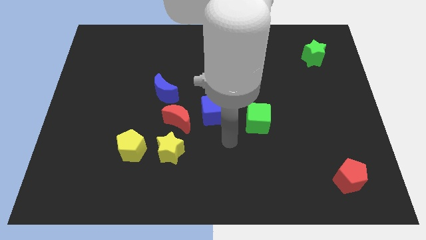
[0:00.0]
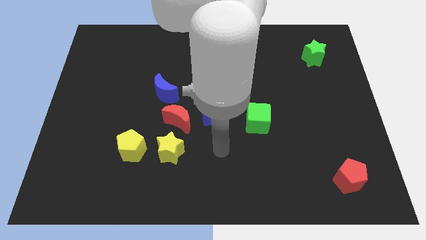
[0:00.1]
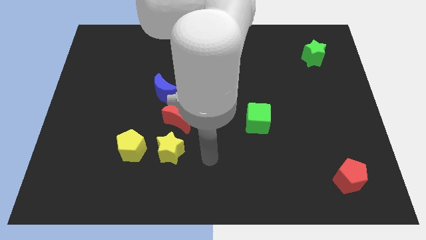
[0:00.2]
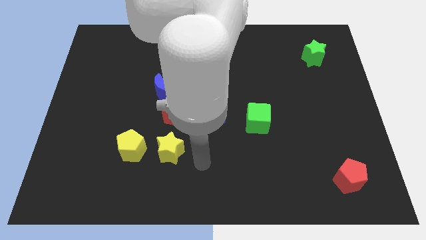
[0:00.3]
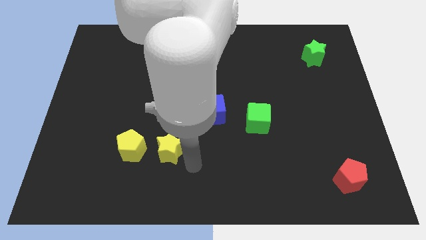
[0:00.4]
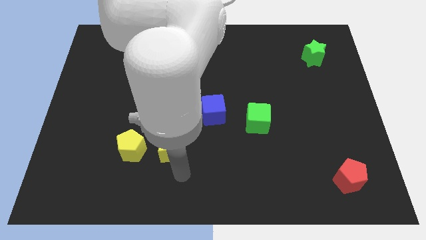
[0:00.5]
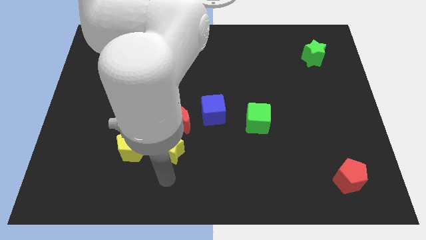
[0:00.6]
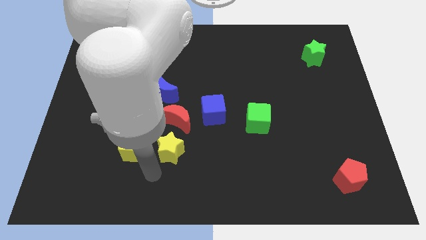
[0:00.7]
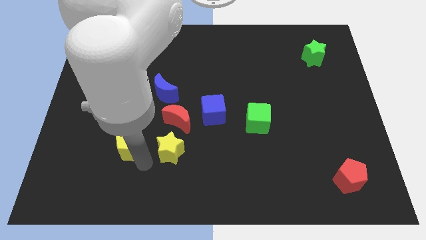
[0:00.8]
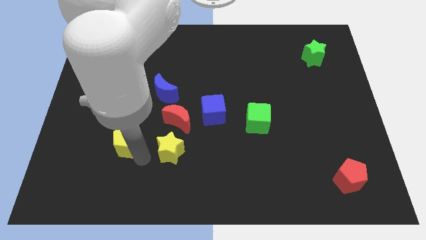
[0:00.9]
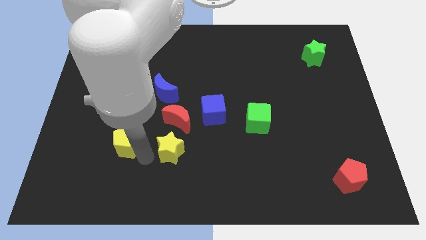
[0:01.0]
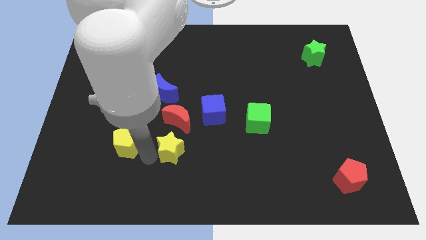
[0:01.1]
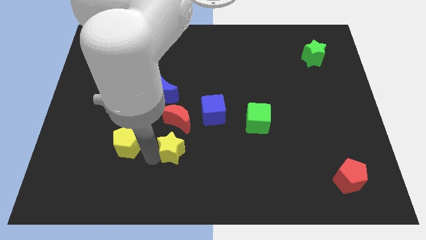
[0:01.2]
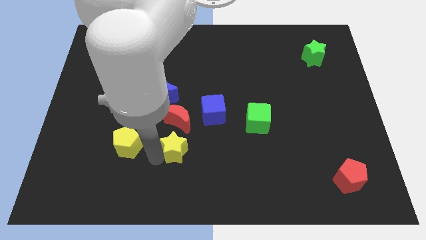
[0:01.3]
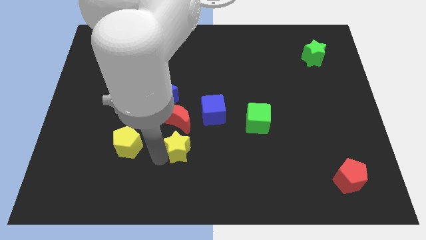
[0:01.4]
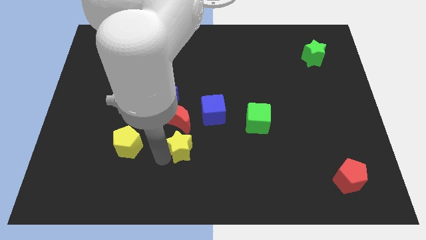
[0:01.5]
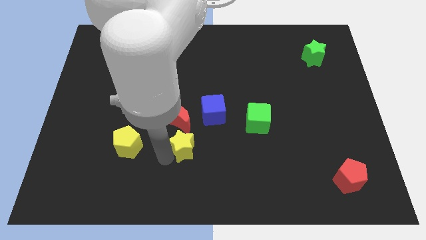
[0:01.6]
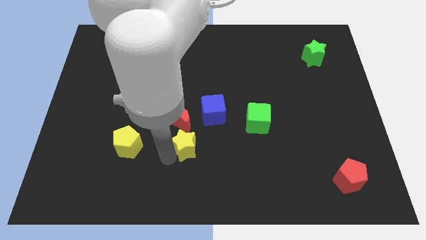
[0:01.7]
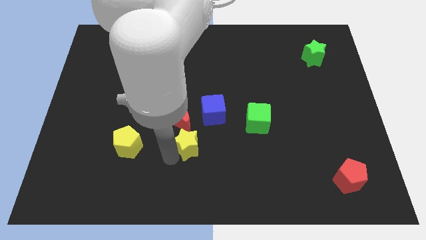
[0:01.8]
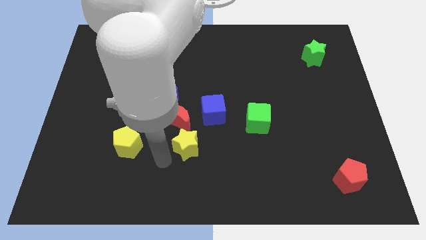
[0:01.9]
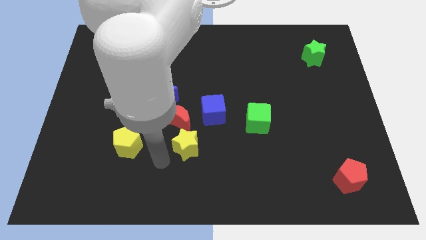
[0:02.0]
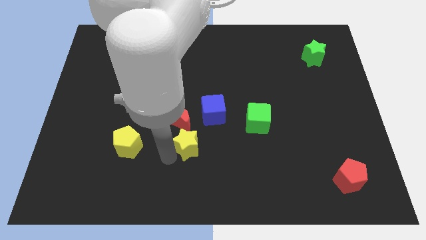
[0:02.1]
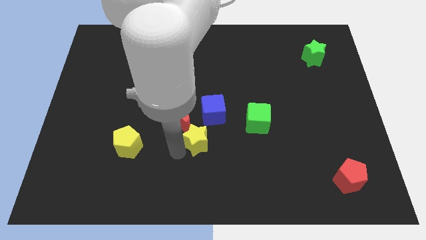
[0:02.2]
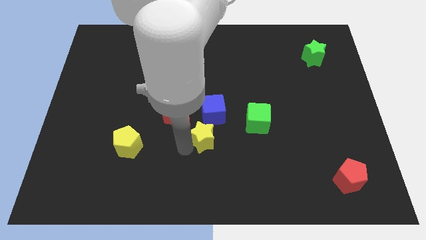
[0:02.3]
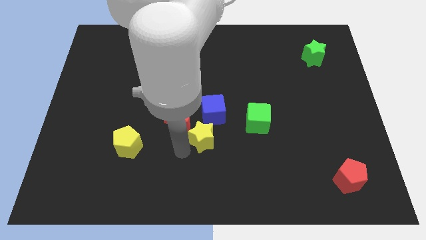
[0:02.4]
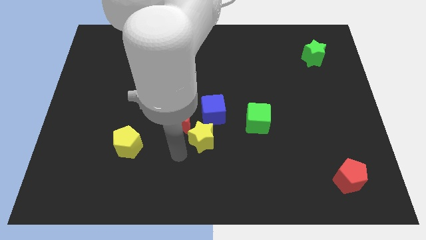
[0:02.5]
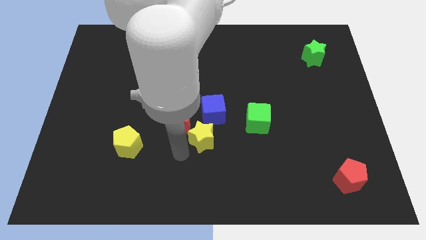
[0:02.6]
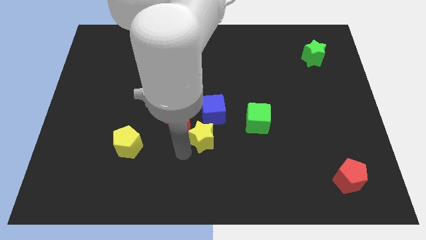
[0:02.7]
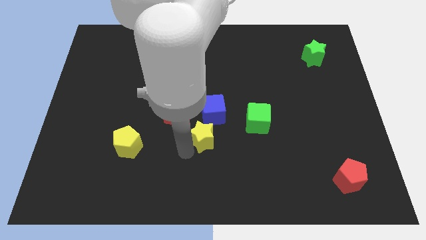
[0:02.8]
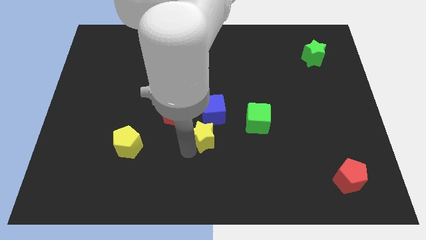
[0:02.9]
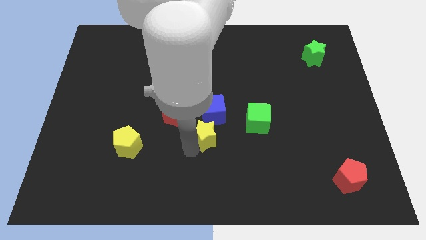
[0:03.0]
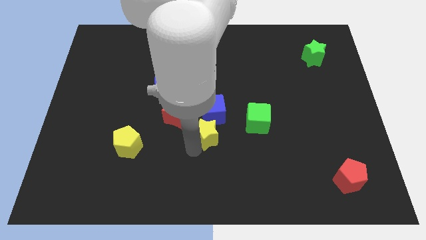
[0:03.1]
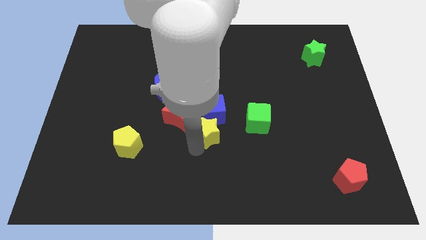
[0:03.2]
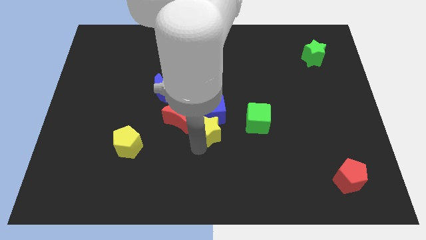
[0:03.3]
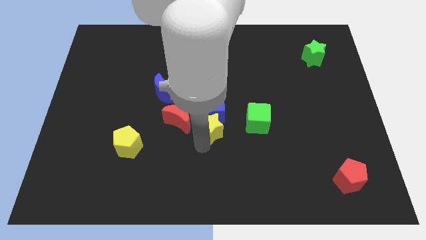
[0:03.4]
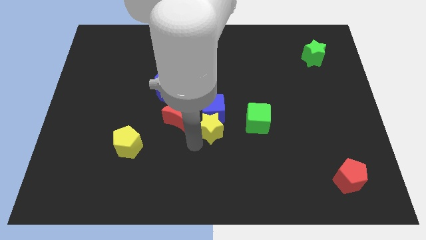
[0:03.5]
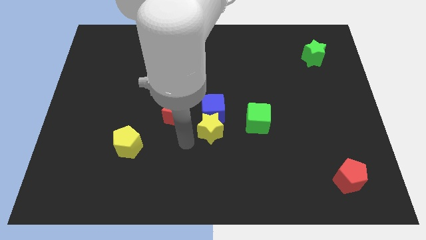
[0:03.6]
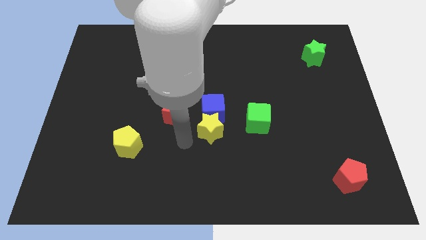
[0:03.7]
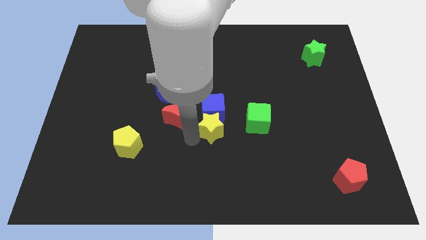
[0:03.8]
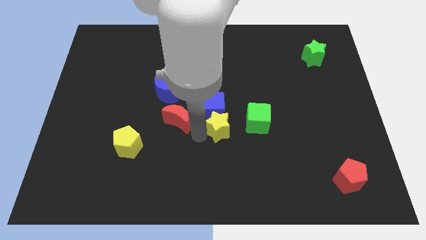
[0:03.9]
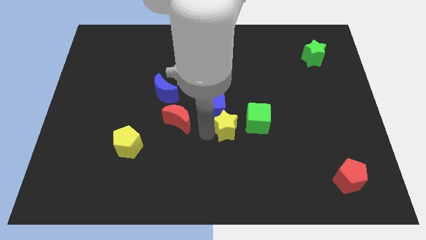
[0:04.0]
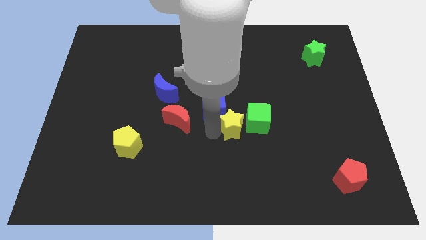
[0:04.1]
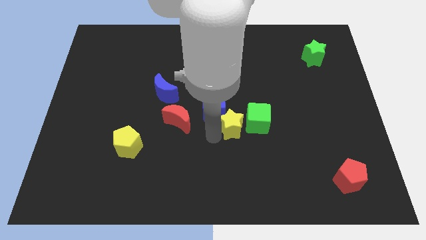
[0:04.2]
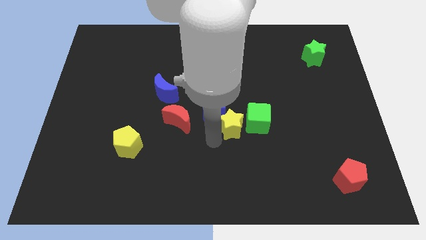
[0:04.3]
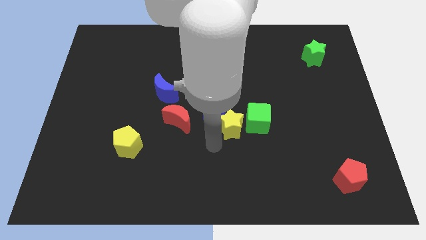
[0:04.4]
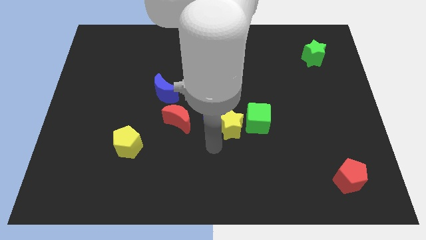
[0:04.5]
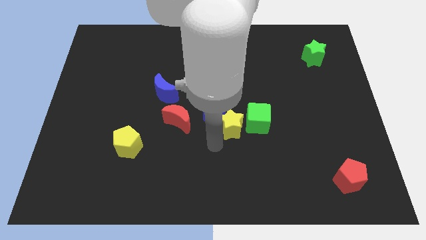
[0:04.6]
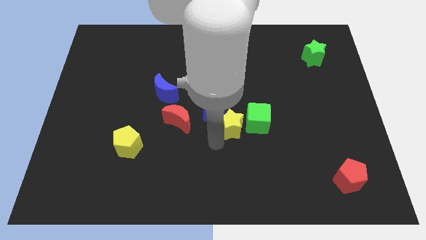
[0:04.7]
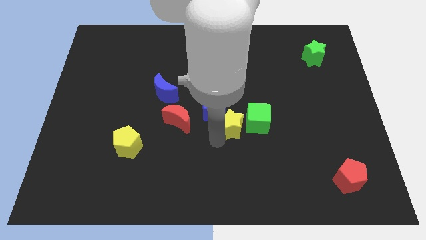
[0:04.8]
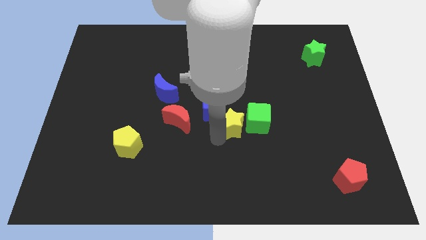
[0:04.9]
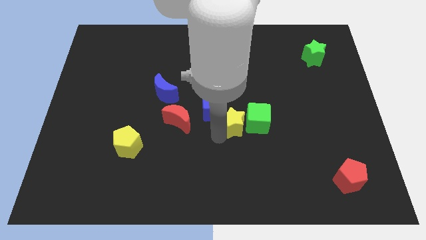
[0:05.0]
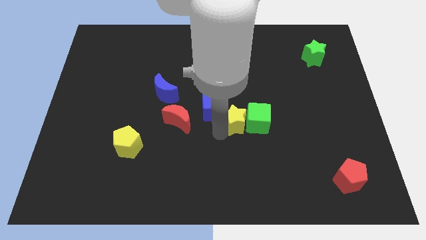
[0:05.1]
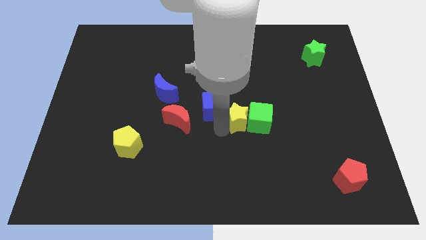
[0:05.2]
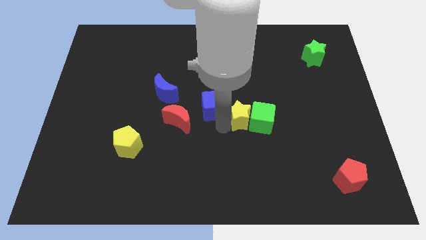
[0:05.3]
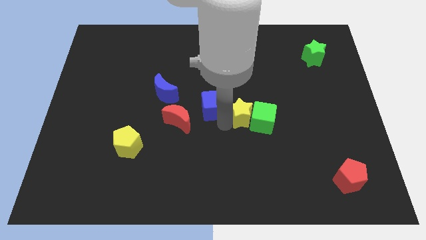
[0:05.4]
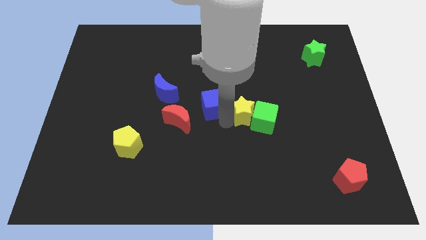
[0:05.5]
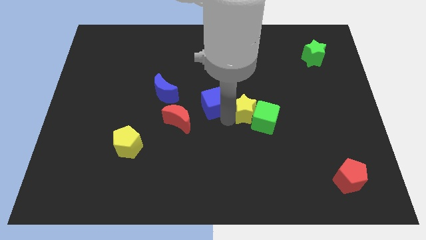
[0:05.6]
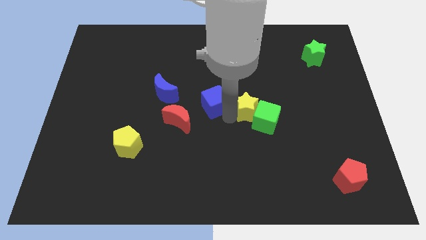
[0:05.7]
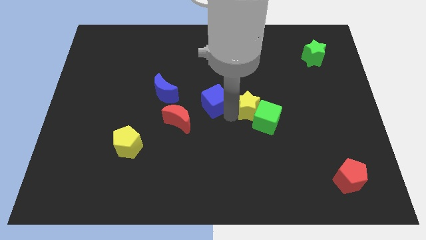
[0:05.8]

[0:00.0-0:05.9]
slide the yellow star upwards and to the right

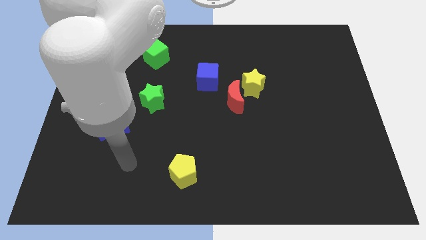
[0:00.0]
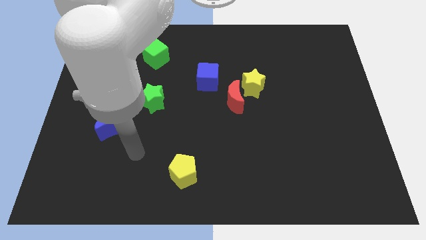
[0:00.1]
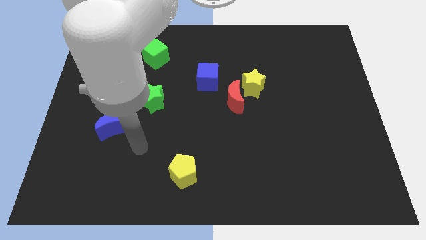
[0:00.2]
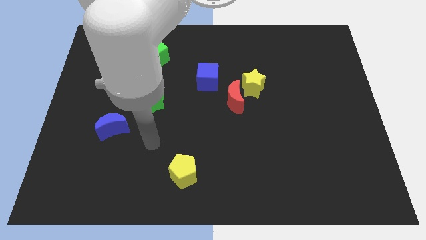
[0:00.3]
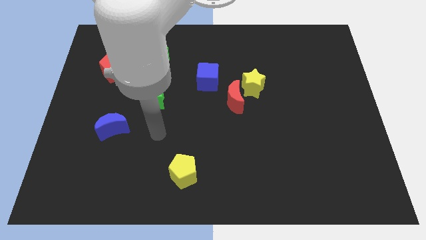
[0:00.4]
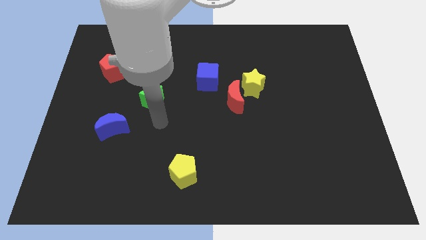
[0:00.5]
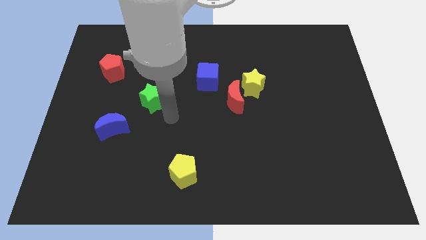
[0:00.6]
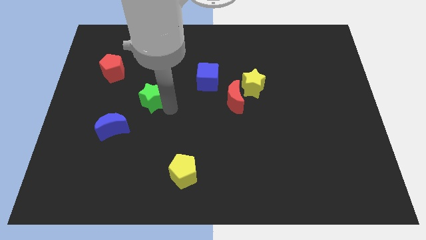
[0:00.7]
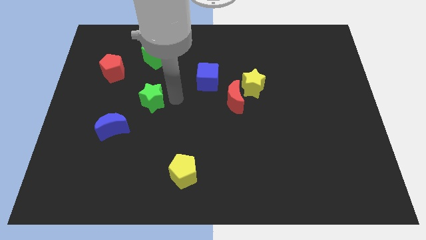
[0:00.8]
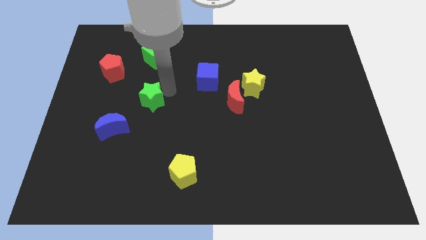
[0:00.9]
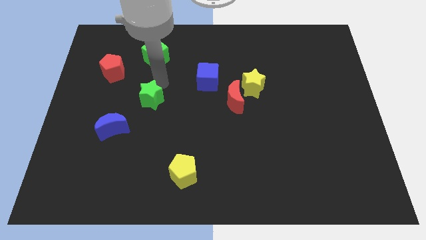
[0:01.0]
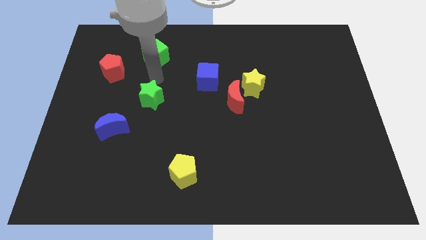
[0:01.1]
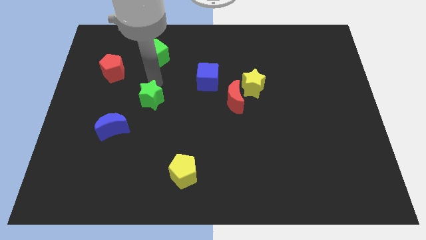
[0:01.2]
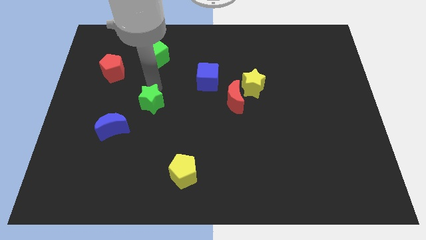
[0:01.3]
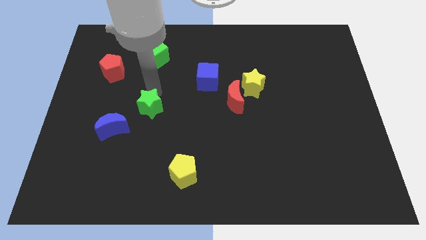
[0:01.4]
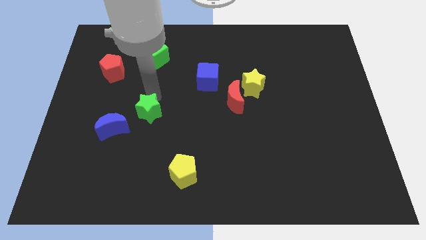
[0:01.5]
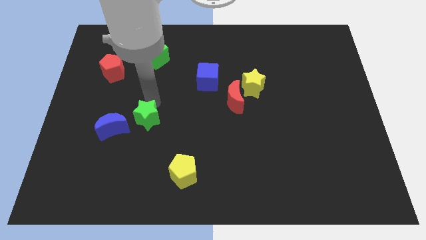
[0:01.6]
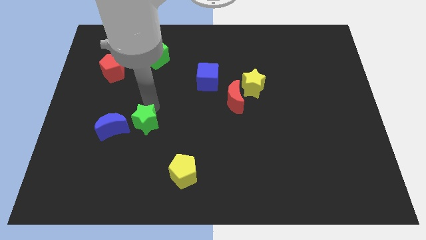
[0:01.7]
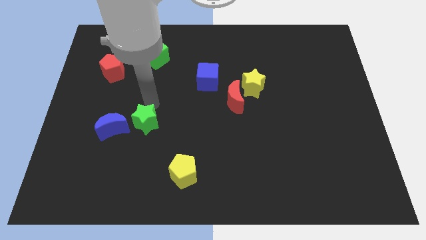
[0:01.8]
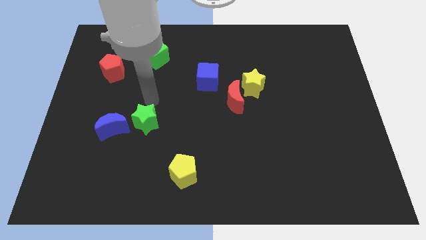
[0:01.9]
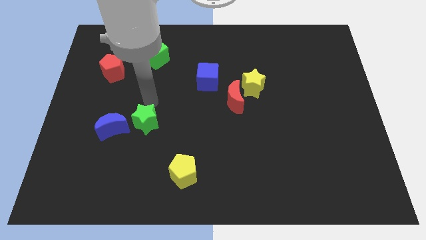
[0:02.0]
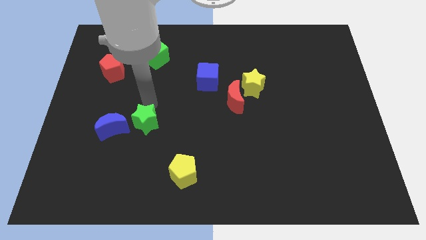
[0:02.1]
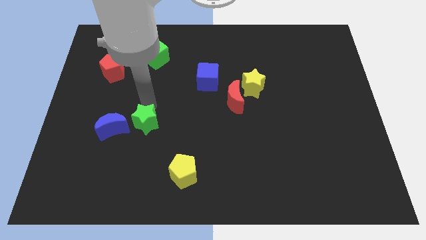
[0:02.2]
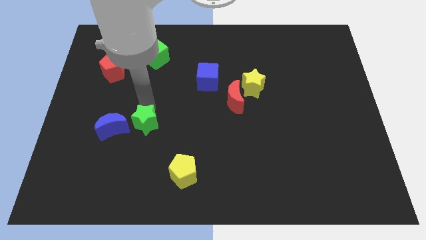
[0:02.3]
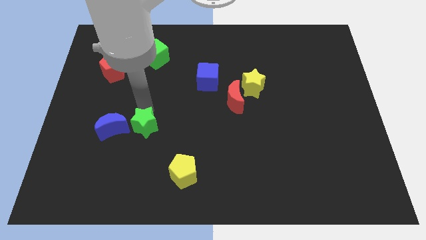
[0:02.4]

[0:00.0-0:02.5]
slightly push the green star downwards
